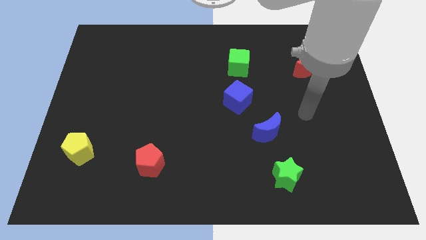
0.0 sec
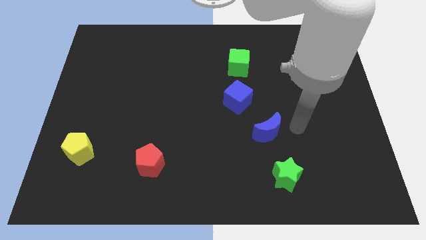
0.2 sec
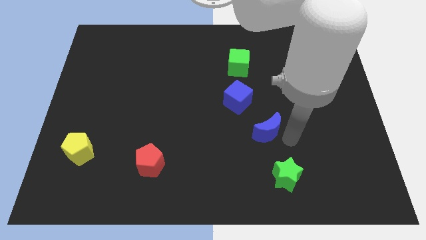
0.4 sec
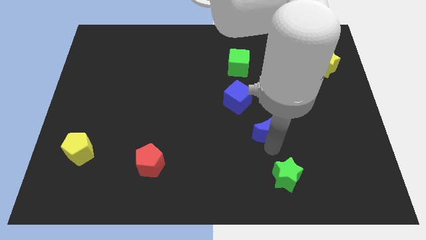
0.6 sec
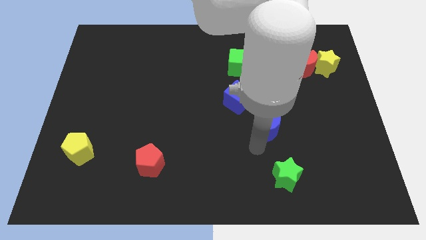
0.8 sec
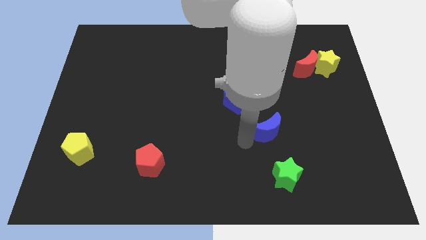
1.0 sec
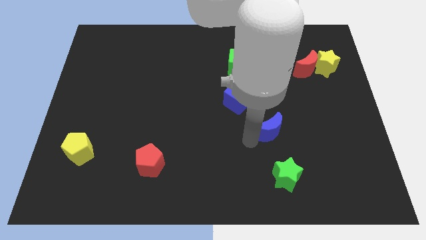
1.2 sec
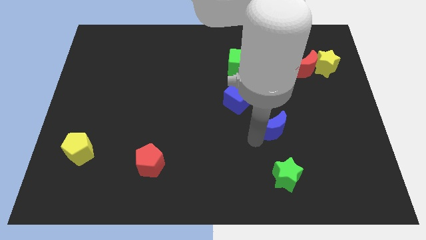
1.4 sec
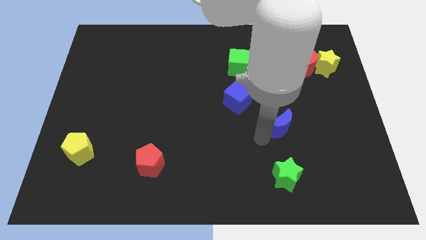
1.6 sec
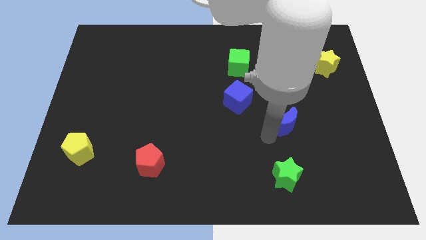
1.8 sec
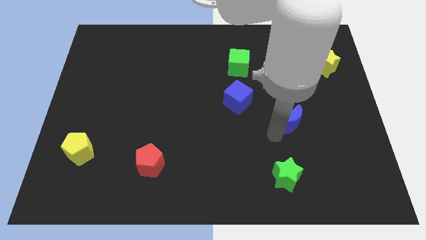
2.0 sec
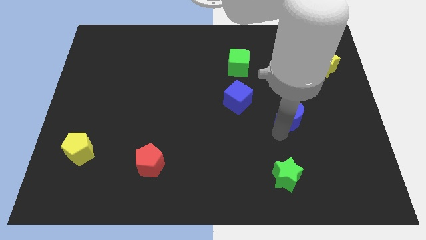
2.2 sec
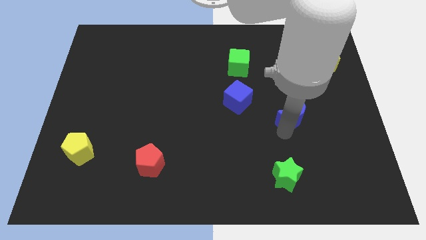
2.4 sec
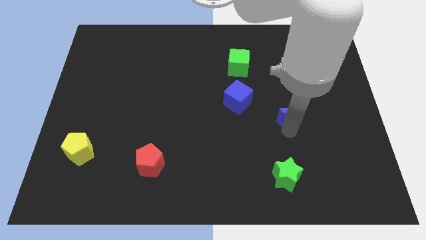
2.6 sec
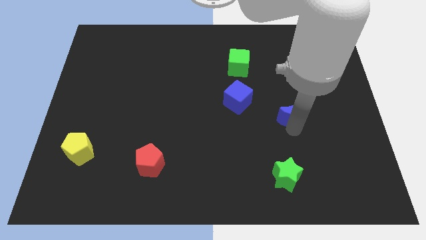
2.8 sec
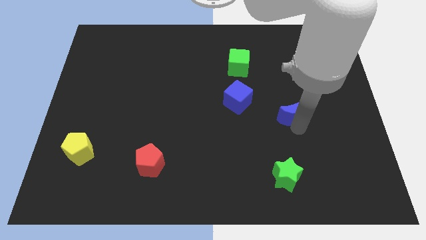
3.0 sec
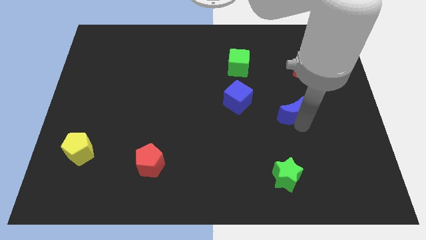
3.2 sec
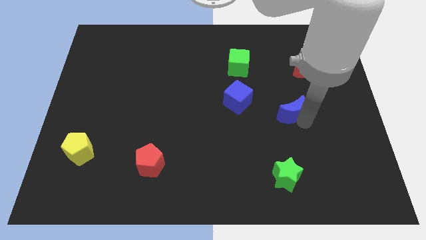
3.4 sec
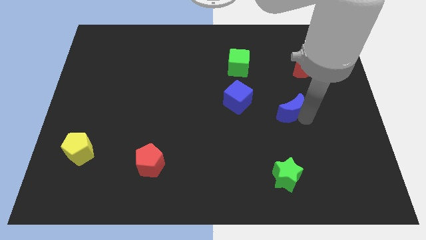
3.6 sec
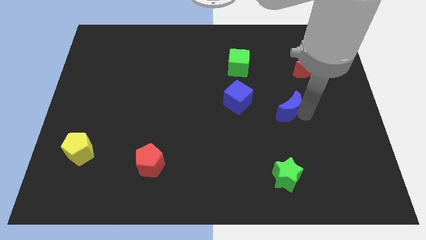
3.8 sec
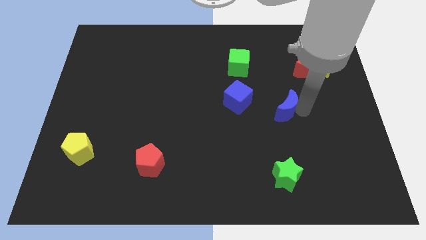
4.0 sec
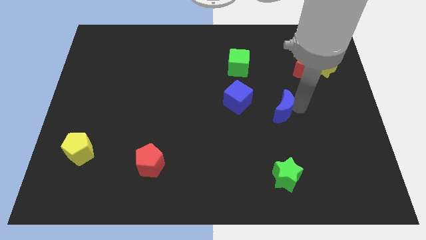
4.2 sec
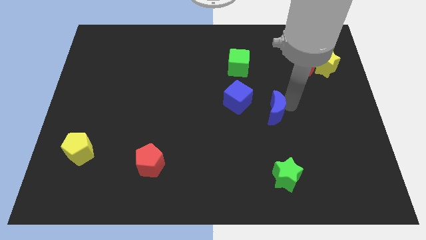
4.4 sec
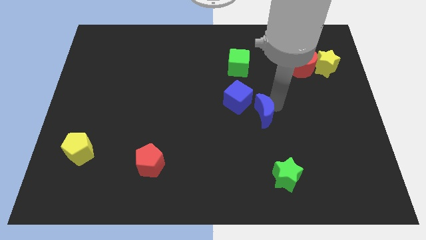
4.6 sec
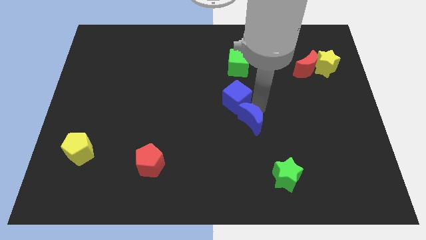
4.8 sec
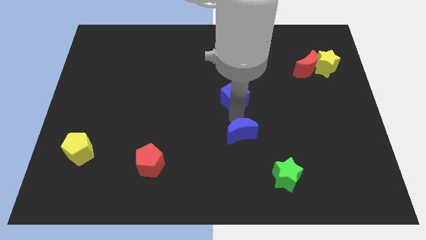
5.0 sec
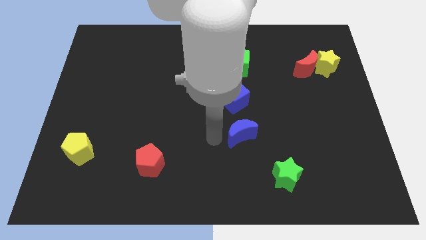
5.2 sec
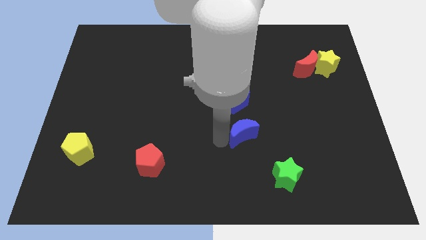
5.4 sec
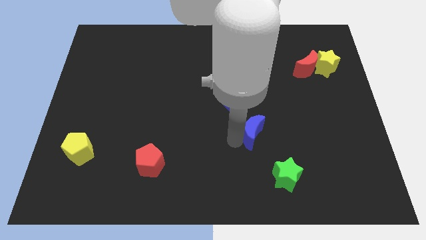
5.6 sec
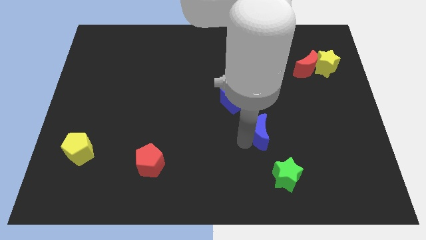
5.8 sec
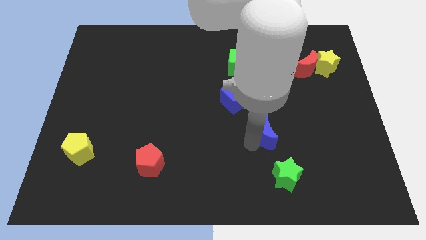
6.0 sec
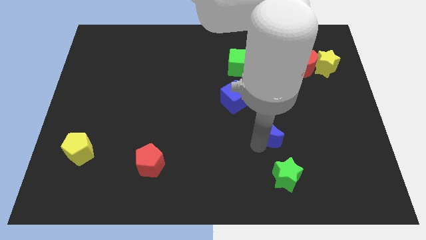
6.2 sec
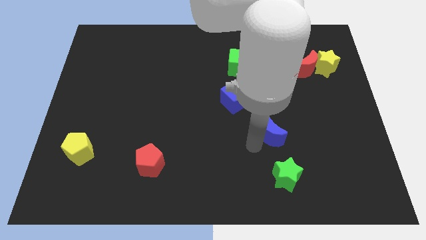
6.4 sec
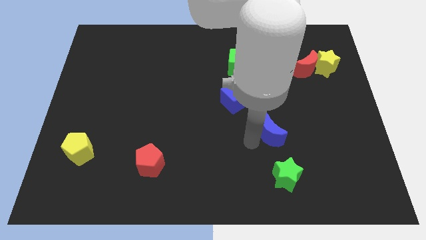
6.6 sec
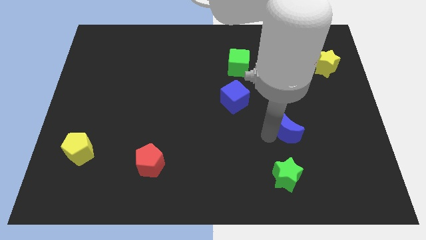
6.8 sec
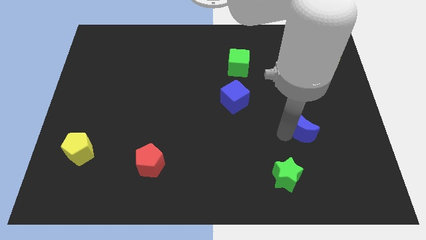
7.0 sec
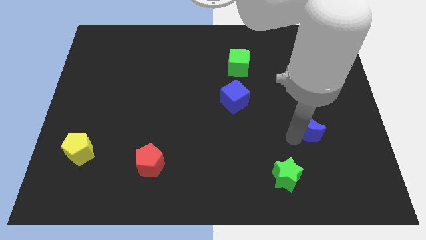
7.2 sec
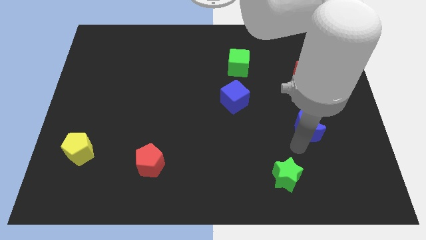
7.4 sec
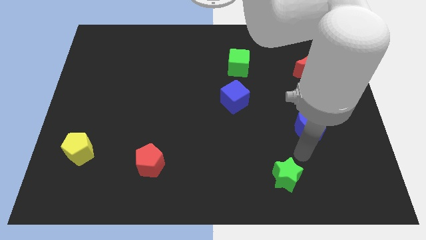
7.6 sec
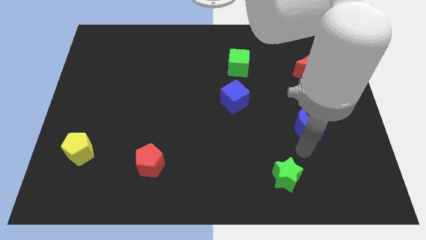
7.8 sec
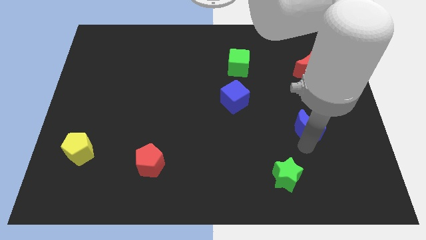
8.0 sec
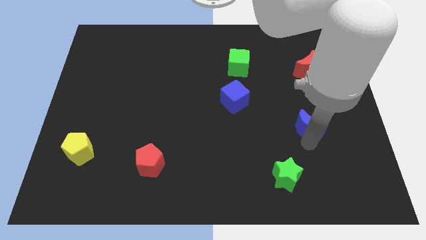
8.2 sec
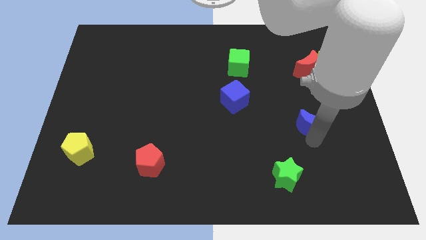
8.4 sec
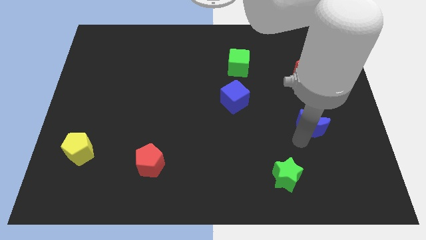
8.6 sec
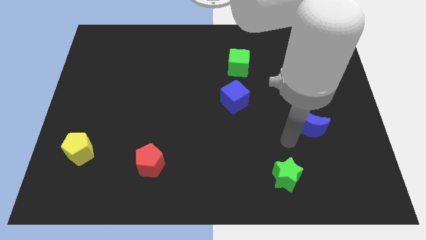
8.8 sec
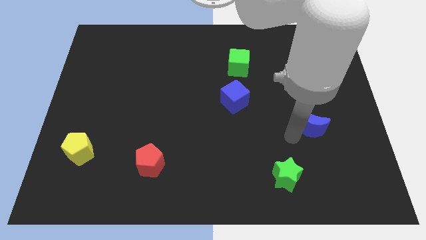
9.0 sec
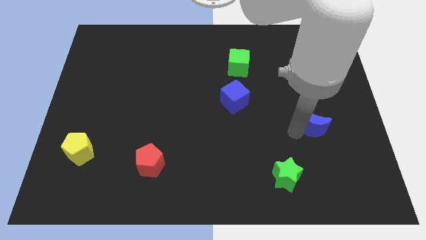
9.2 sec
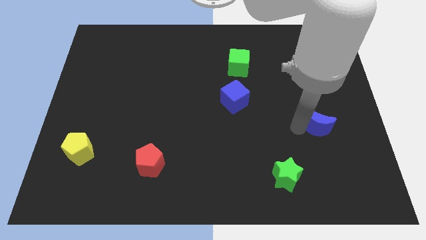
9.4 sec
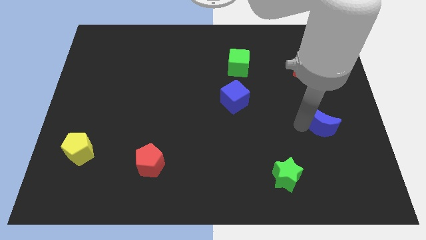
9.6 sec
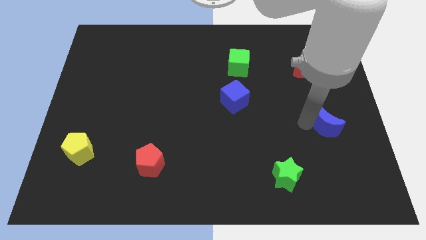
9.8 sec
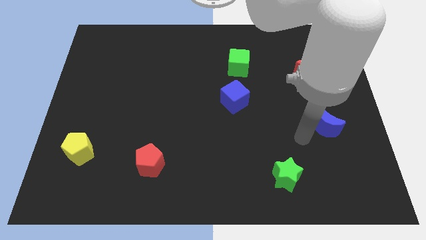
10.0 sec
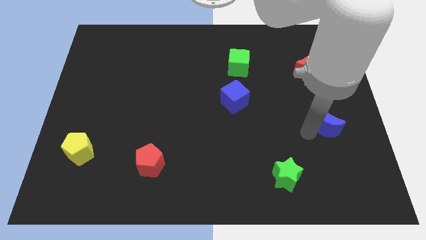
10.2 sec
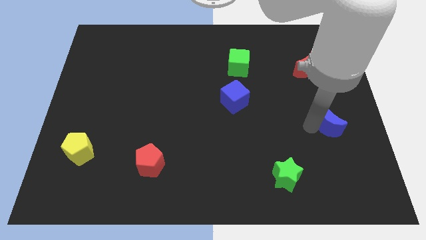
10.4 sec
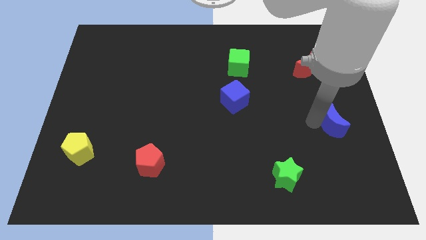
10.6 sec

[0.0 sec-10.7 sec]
slide the blue moon to the right side

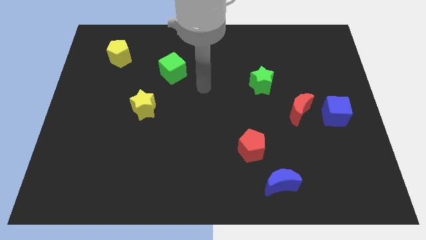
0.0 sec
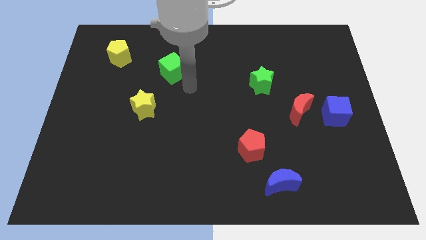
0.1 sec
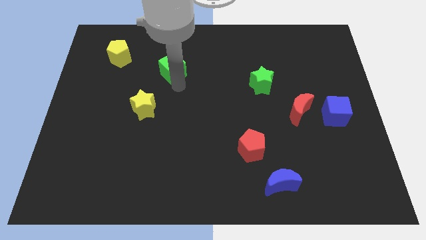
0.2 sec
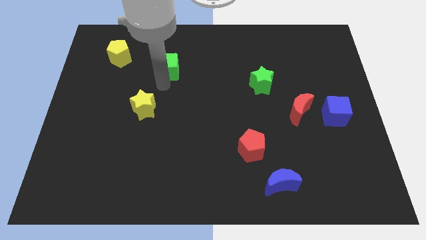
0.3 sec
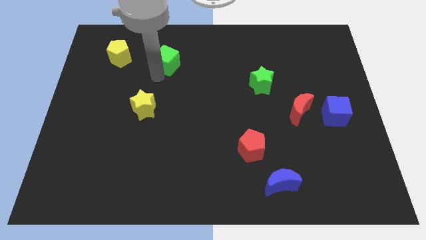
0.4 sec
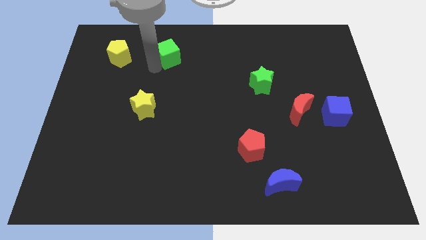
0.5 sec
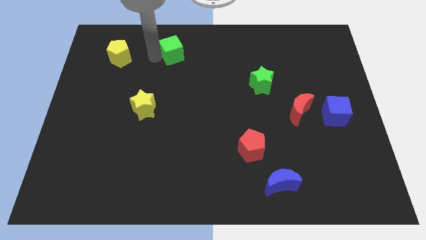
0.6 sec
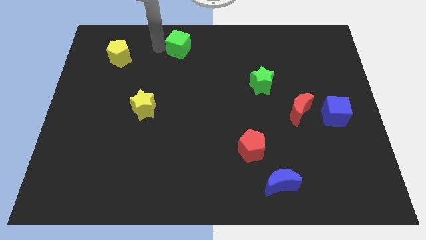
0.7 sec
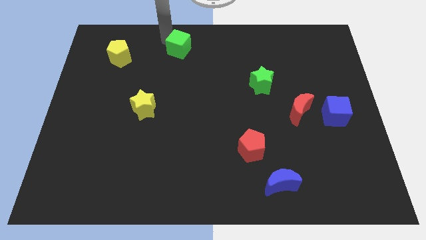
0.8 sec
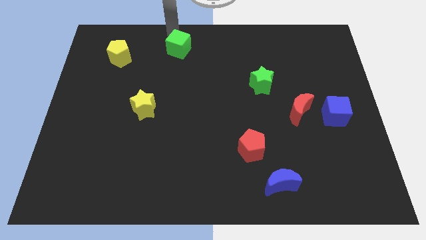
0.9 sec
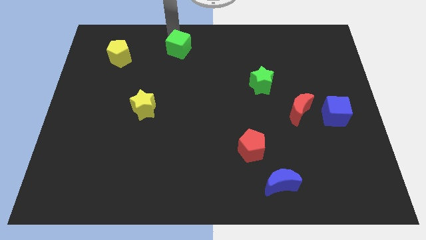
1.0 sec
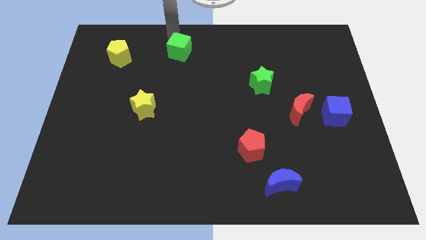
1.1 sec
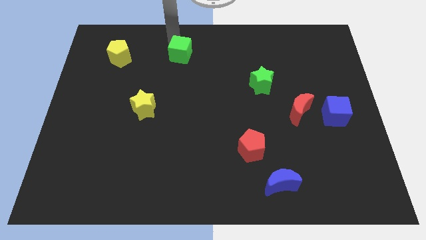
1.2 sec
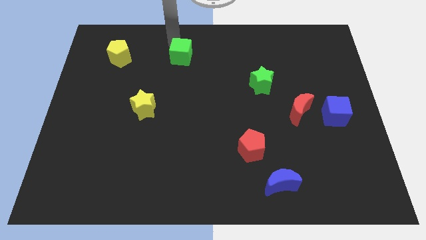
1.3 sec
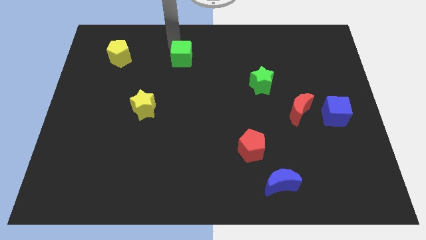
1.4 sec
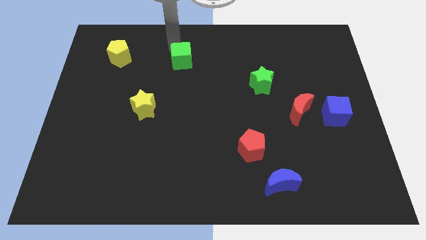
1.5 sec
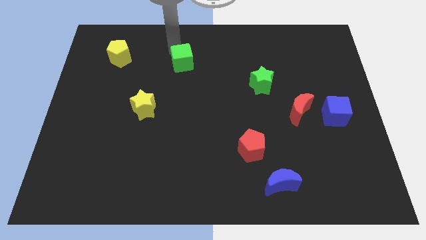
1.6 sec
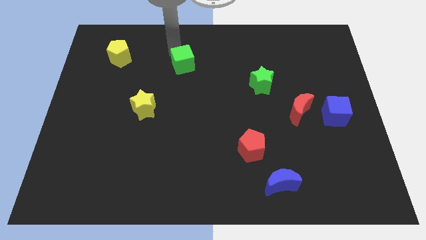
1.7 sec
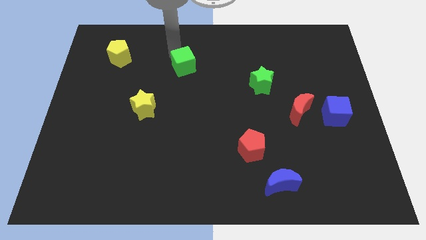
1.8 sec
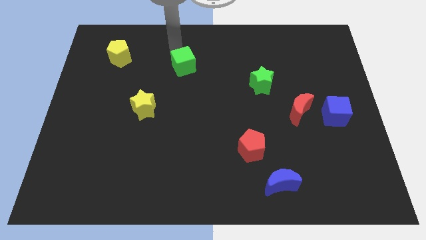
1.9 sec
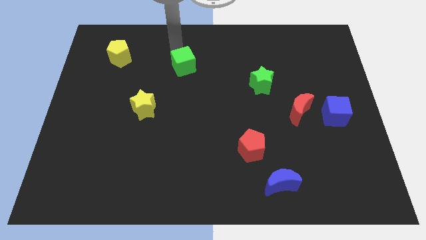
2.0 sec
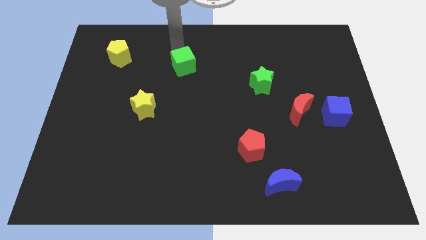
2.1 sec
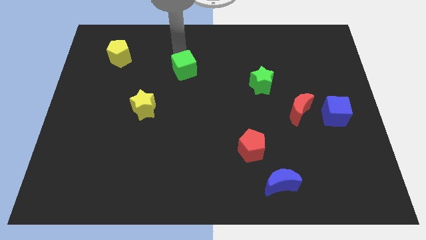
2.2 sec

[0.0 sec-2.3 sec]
put the green cube to the middle of the board
